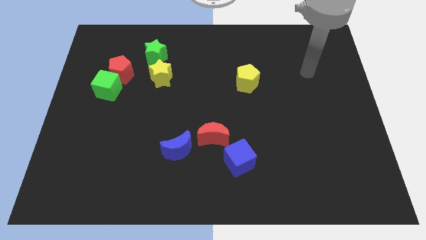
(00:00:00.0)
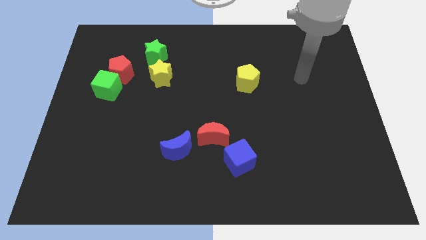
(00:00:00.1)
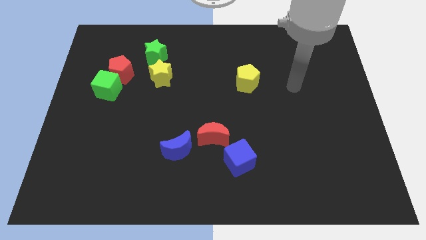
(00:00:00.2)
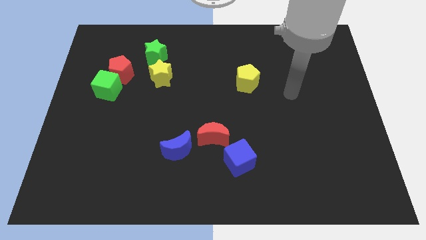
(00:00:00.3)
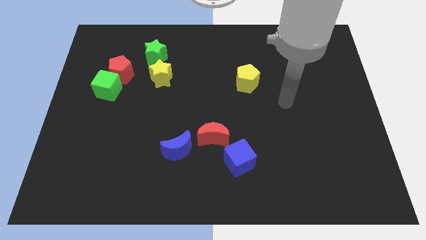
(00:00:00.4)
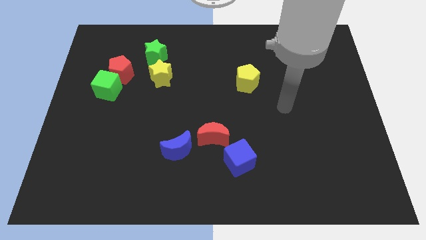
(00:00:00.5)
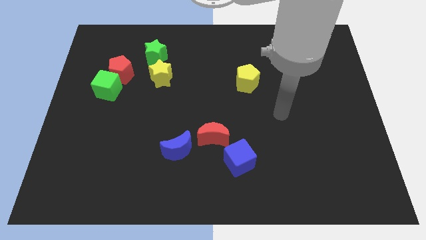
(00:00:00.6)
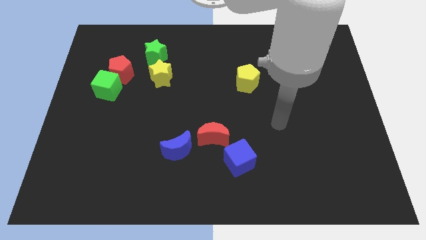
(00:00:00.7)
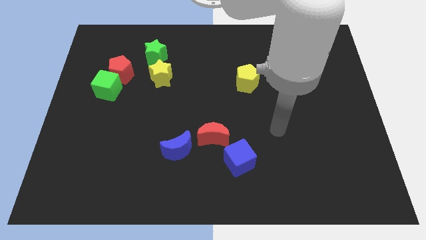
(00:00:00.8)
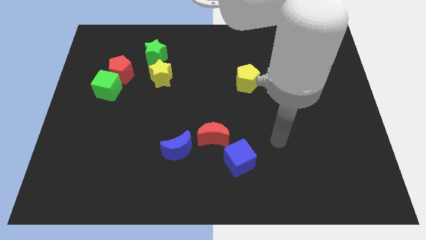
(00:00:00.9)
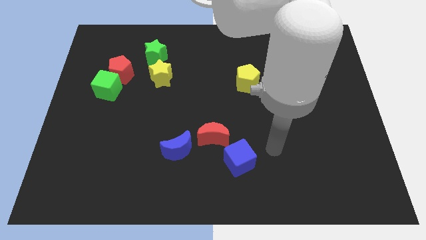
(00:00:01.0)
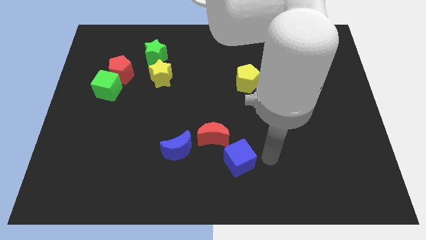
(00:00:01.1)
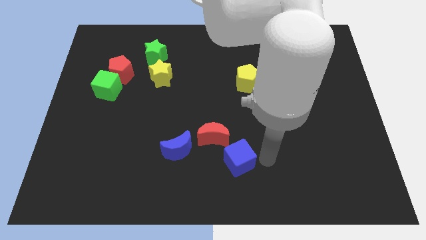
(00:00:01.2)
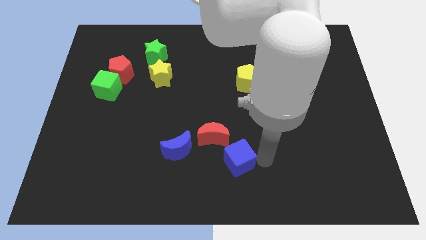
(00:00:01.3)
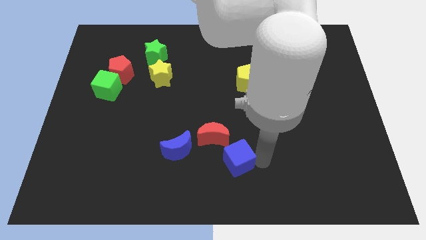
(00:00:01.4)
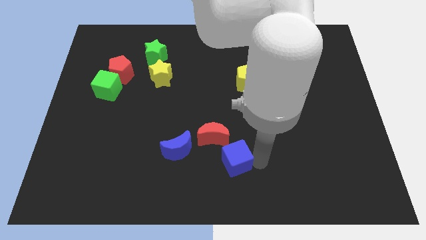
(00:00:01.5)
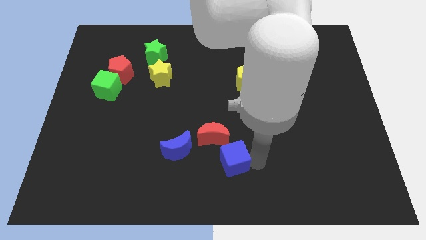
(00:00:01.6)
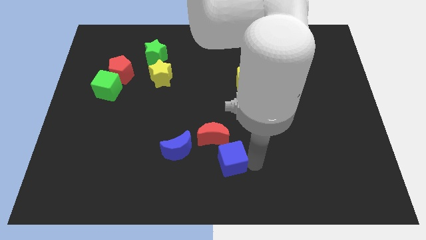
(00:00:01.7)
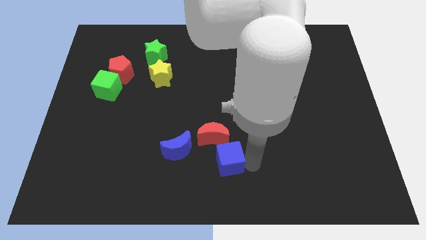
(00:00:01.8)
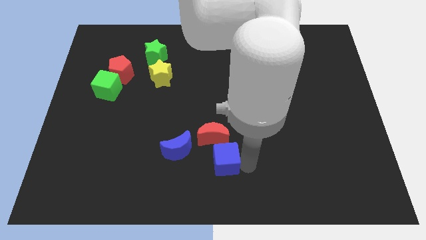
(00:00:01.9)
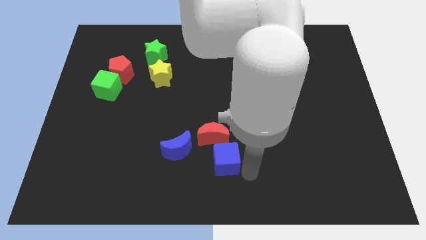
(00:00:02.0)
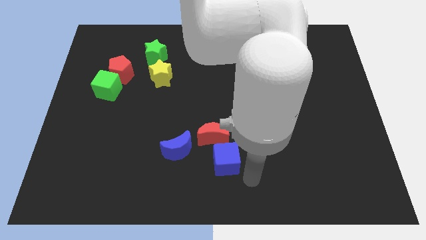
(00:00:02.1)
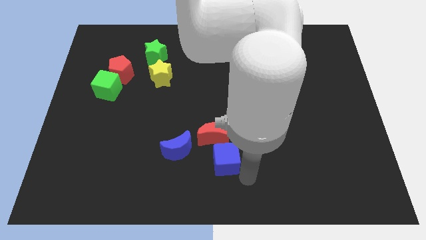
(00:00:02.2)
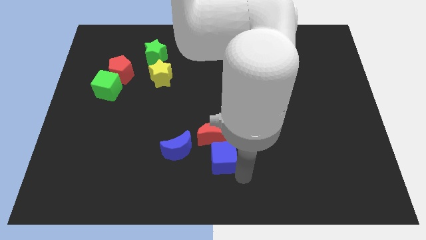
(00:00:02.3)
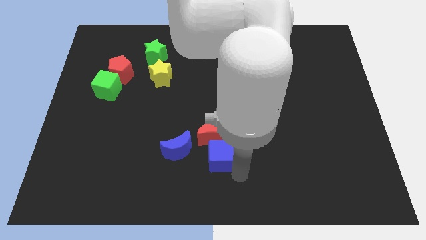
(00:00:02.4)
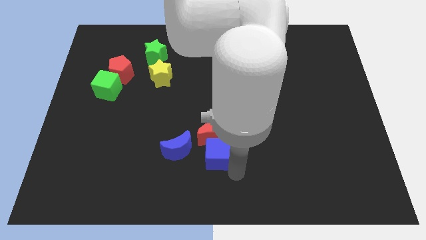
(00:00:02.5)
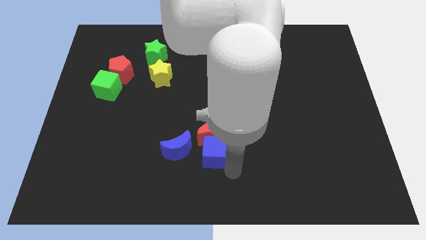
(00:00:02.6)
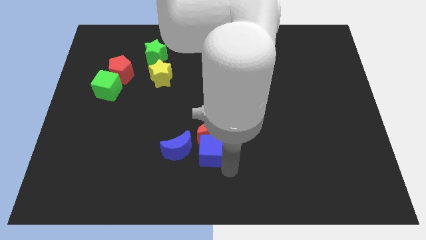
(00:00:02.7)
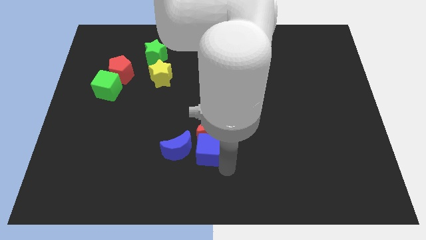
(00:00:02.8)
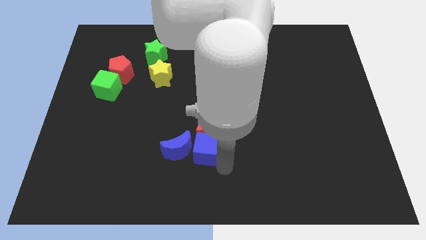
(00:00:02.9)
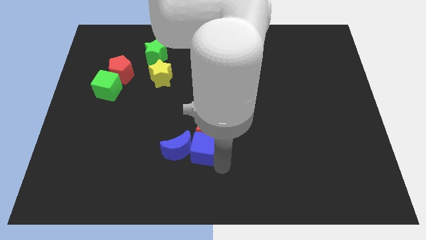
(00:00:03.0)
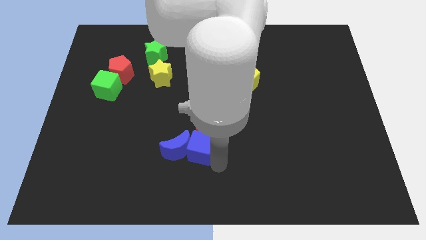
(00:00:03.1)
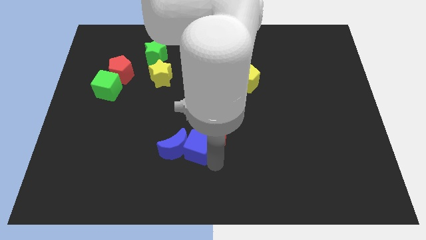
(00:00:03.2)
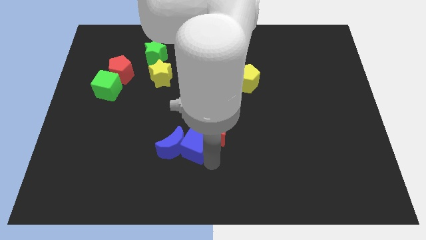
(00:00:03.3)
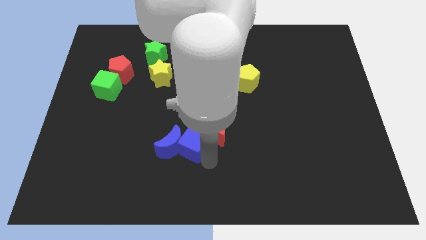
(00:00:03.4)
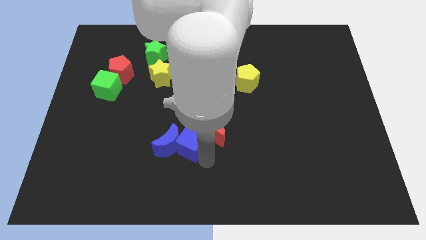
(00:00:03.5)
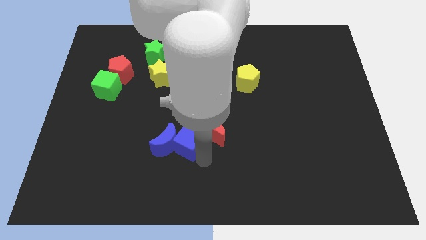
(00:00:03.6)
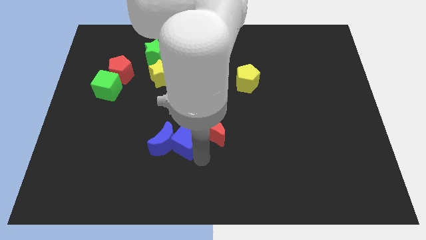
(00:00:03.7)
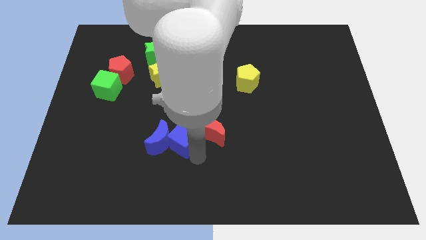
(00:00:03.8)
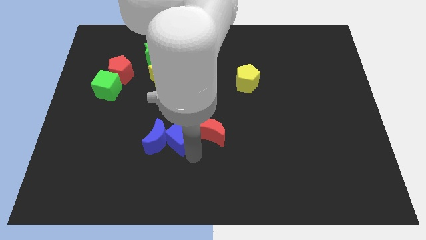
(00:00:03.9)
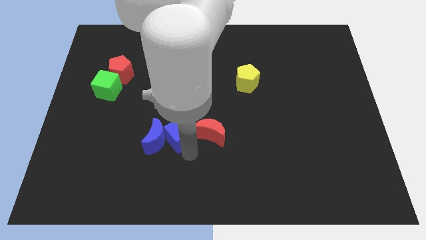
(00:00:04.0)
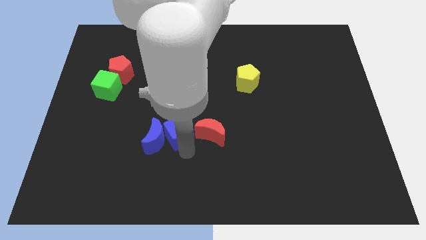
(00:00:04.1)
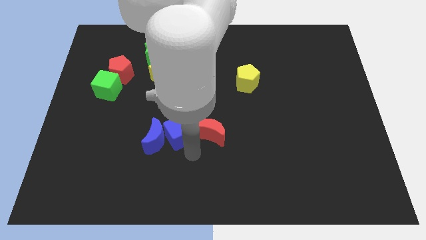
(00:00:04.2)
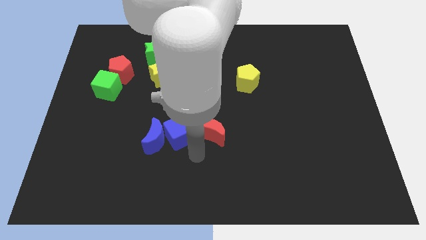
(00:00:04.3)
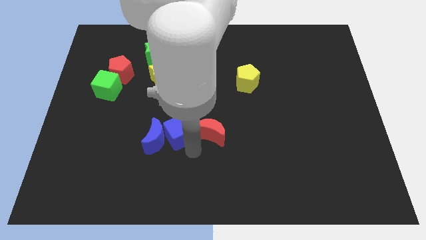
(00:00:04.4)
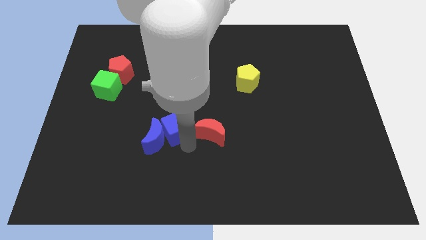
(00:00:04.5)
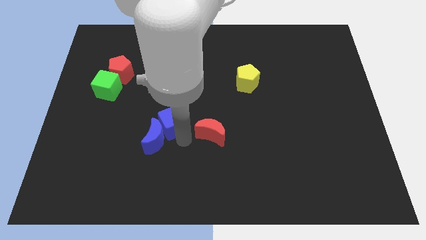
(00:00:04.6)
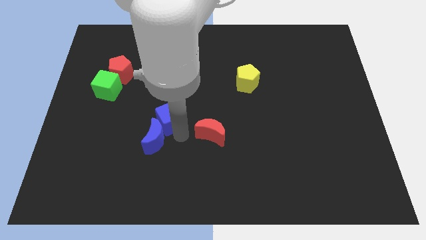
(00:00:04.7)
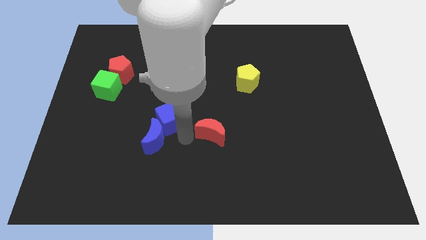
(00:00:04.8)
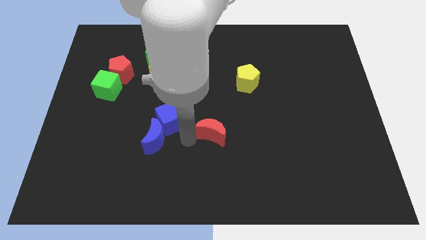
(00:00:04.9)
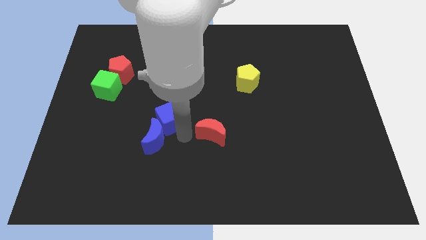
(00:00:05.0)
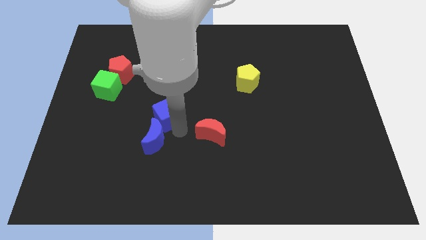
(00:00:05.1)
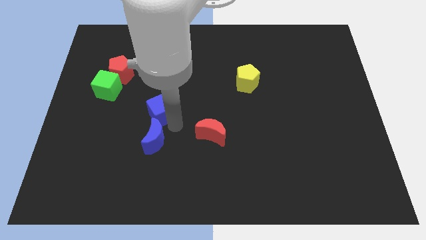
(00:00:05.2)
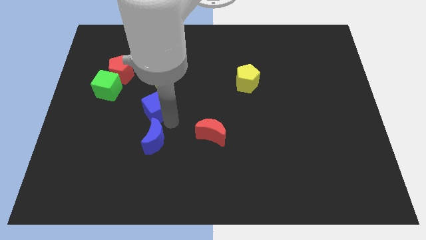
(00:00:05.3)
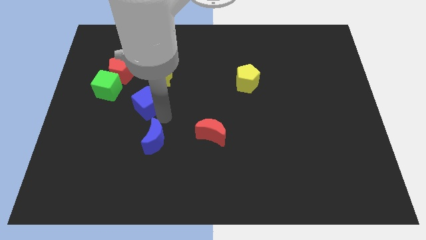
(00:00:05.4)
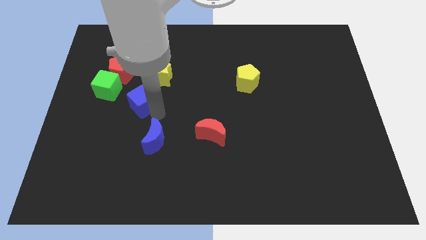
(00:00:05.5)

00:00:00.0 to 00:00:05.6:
put the blue cube diagonally down and to the right of the red pentagon
